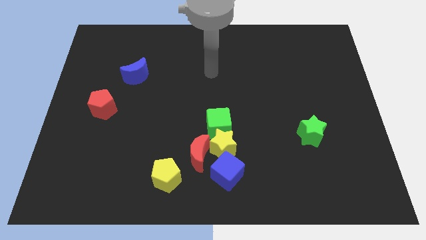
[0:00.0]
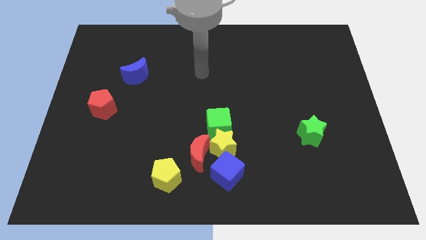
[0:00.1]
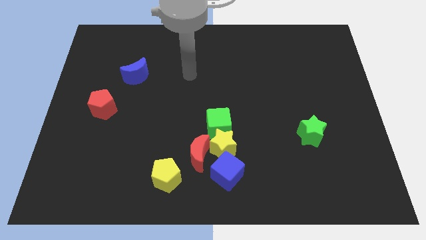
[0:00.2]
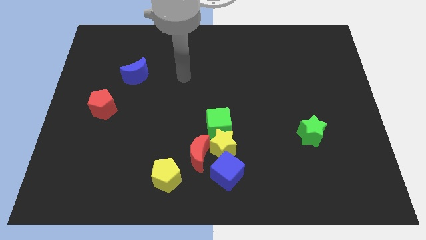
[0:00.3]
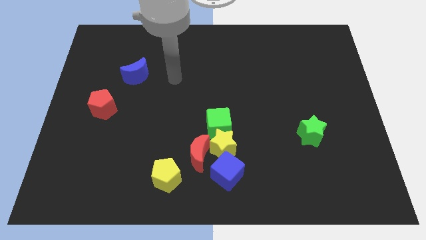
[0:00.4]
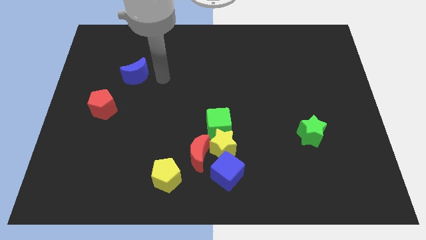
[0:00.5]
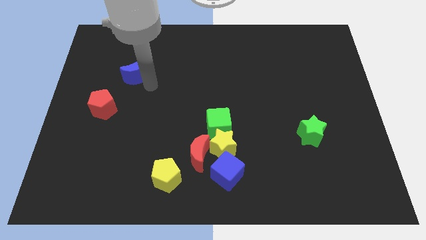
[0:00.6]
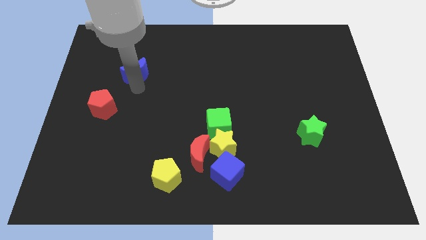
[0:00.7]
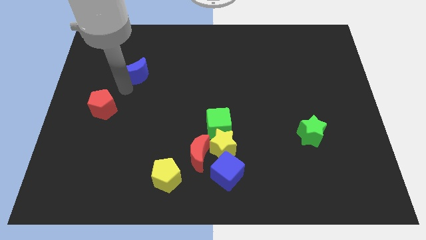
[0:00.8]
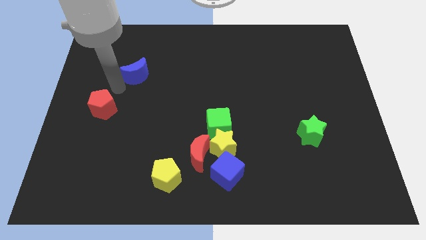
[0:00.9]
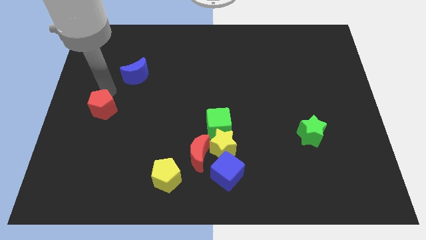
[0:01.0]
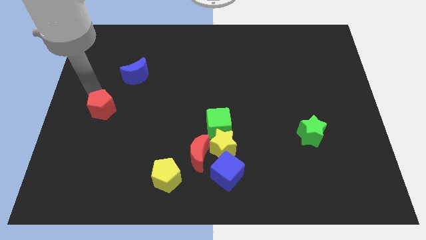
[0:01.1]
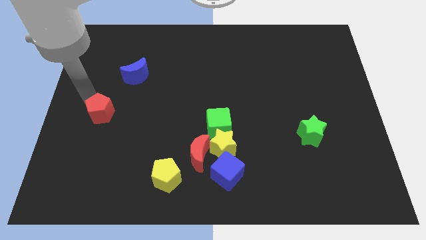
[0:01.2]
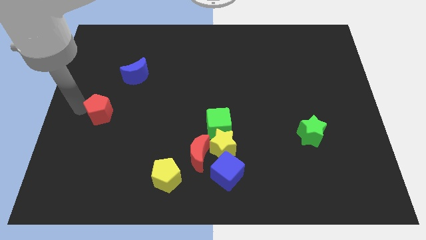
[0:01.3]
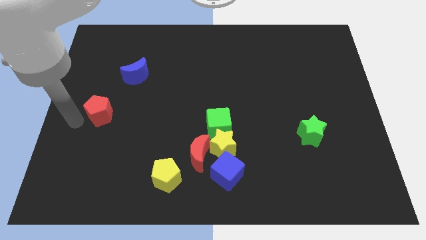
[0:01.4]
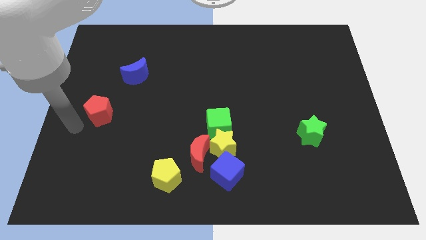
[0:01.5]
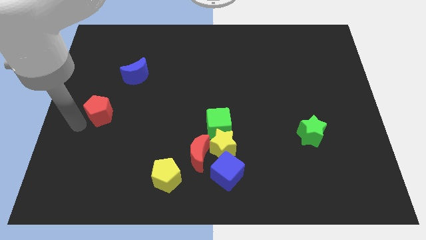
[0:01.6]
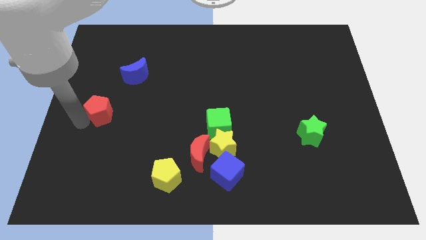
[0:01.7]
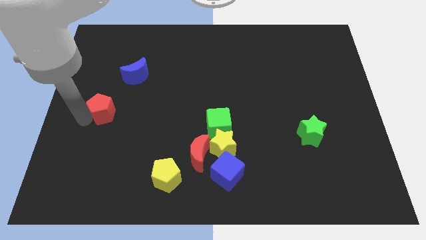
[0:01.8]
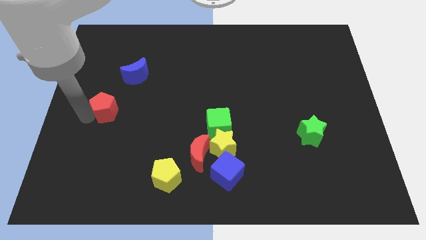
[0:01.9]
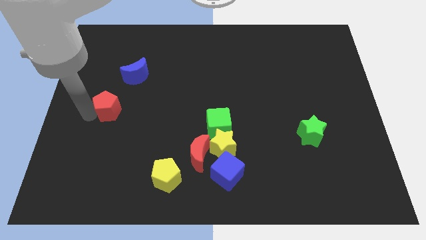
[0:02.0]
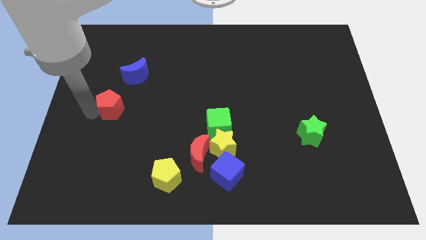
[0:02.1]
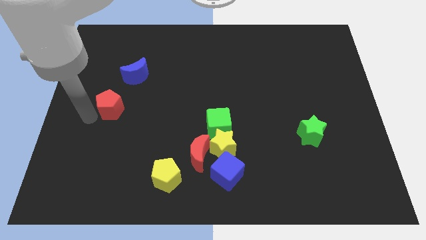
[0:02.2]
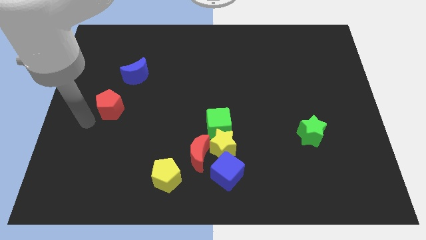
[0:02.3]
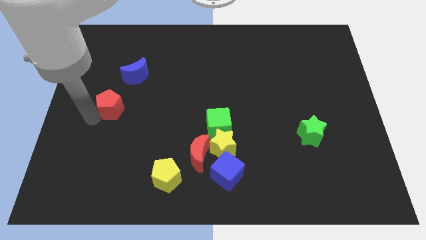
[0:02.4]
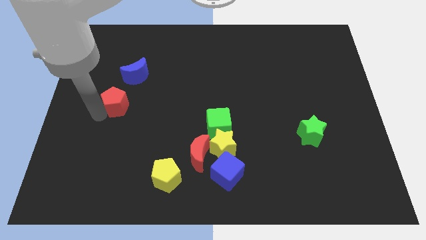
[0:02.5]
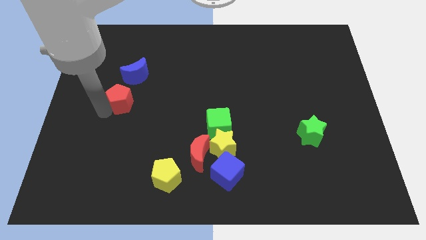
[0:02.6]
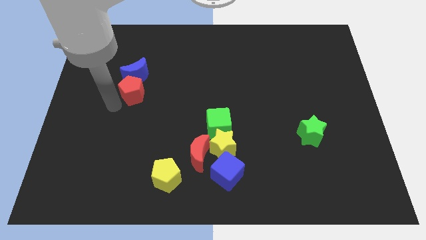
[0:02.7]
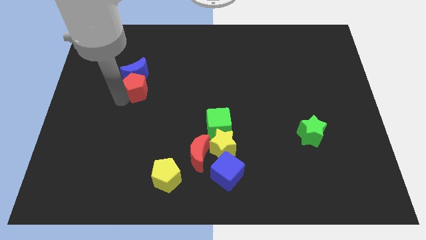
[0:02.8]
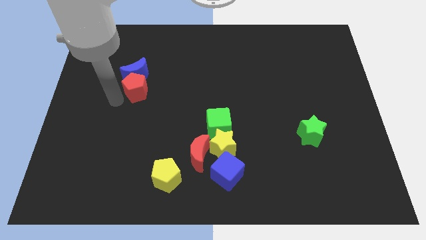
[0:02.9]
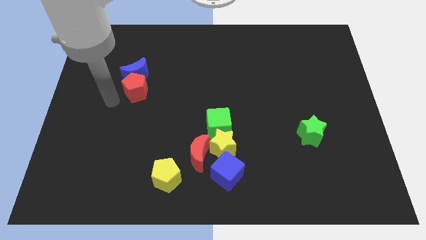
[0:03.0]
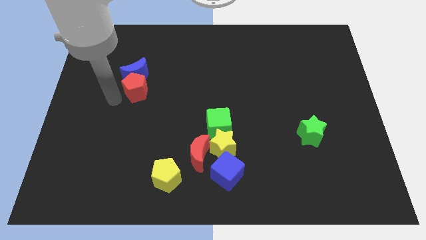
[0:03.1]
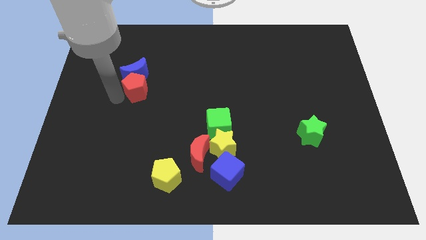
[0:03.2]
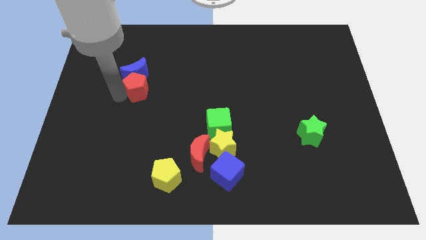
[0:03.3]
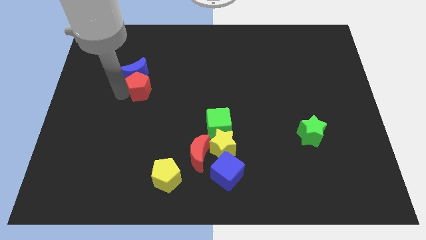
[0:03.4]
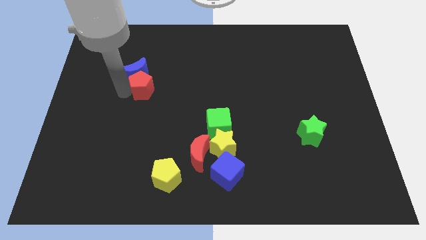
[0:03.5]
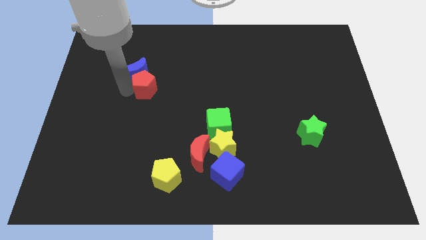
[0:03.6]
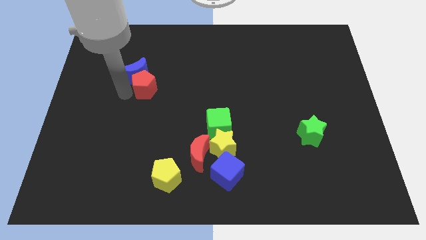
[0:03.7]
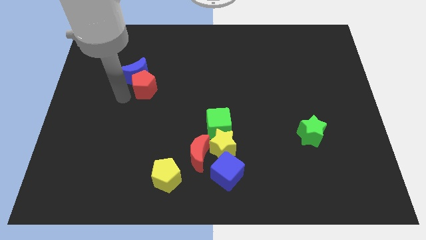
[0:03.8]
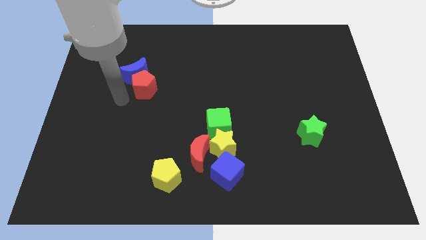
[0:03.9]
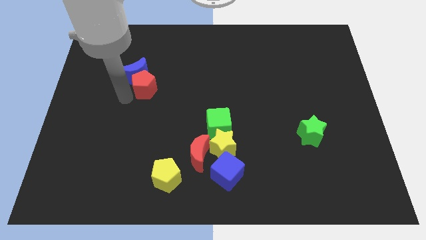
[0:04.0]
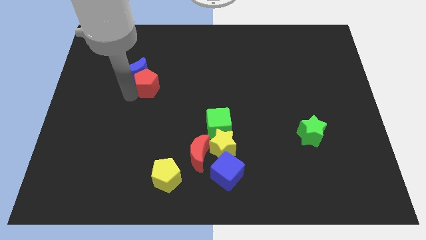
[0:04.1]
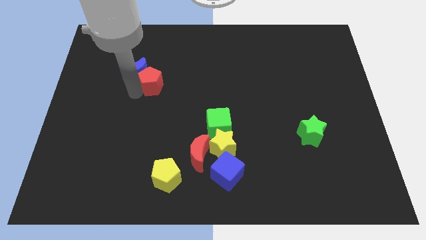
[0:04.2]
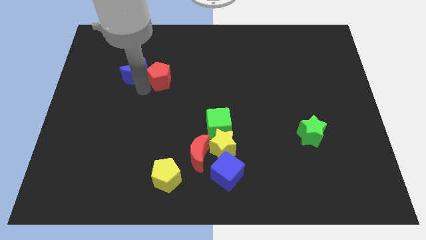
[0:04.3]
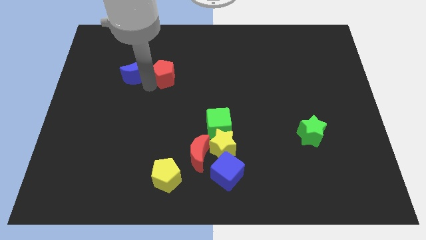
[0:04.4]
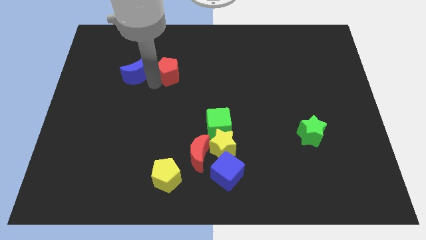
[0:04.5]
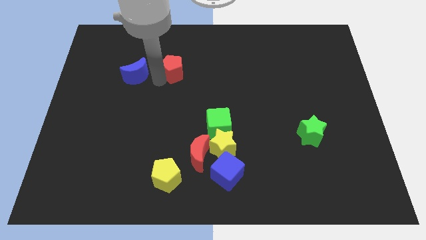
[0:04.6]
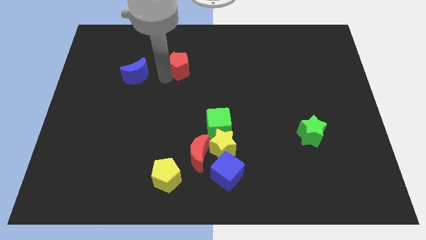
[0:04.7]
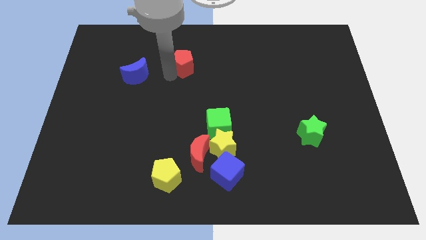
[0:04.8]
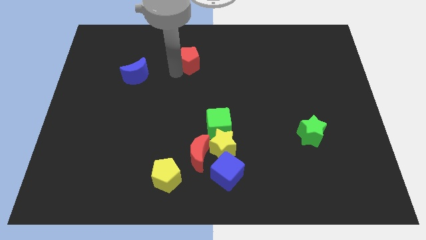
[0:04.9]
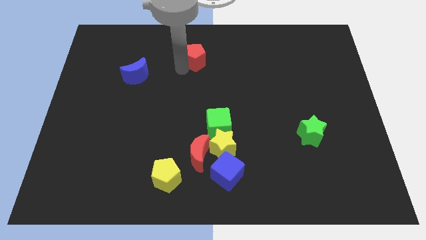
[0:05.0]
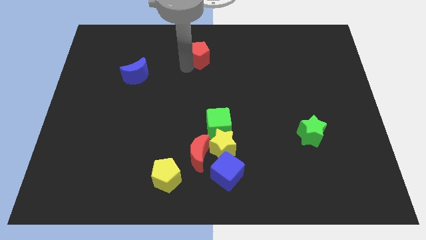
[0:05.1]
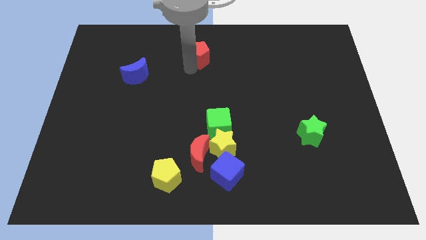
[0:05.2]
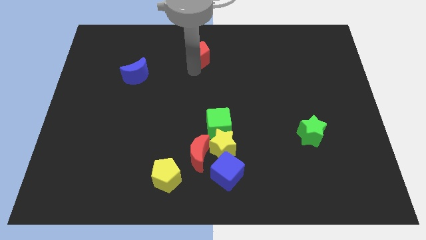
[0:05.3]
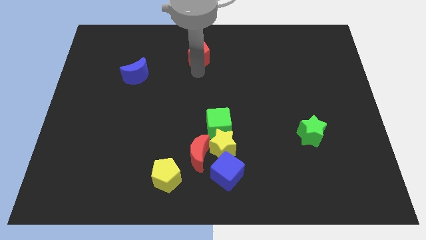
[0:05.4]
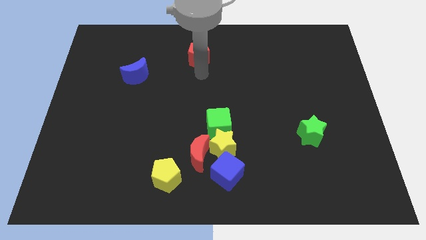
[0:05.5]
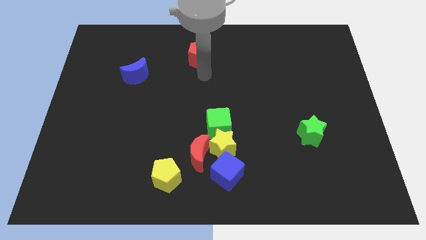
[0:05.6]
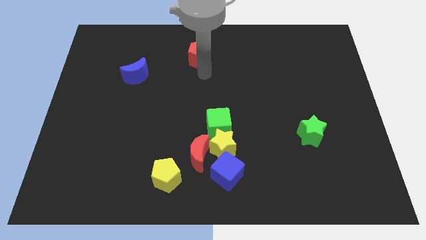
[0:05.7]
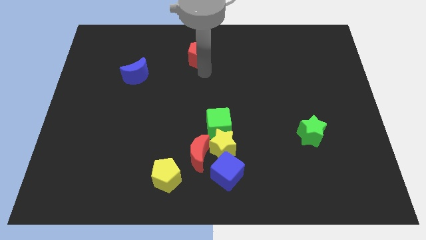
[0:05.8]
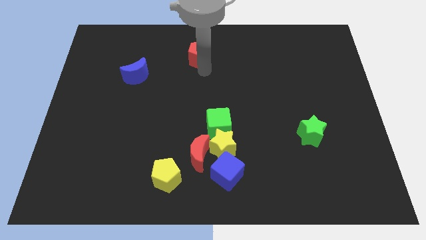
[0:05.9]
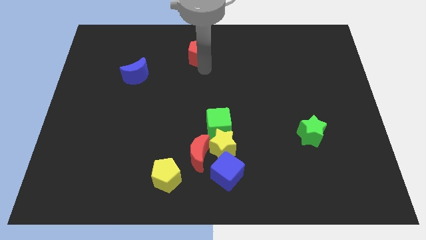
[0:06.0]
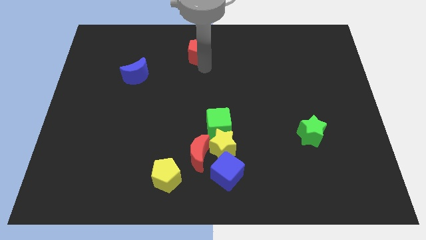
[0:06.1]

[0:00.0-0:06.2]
slide the red pentagon to the towards your base
